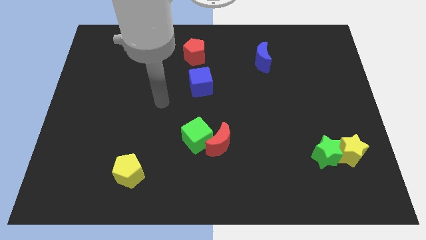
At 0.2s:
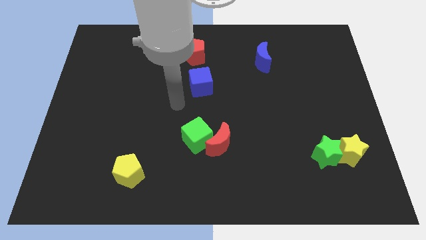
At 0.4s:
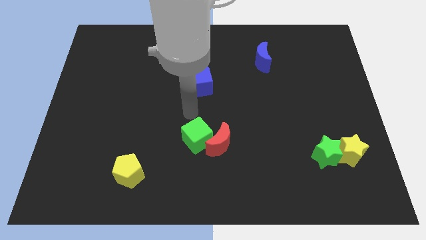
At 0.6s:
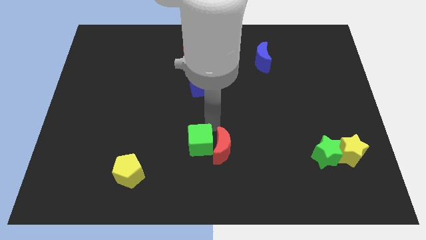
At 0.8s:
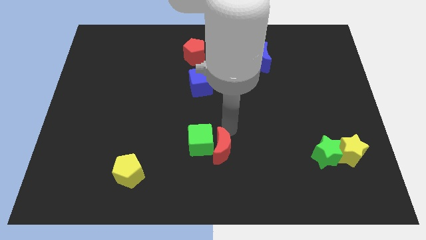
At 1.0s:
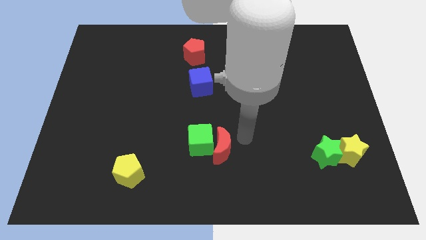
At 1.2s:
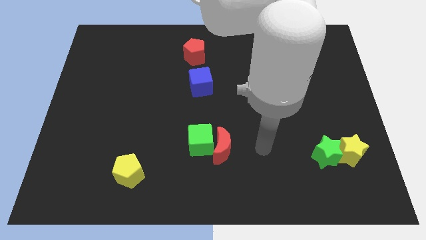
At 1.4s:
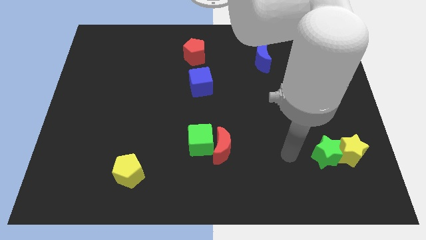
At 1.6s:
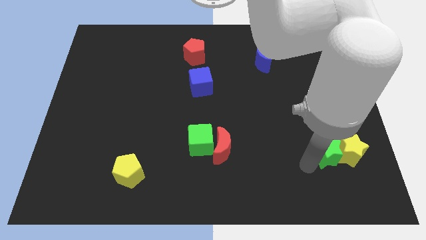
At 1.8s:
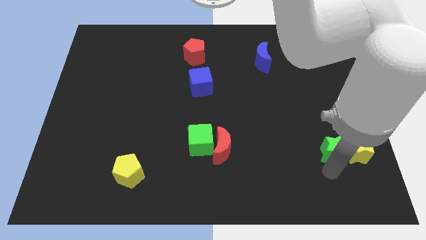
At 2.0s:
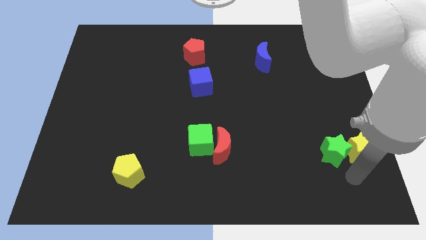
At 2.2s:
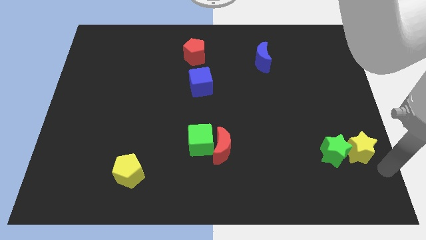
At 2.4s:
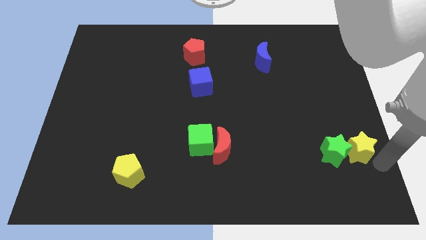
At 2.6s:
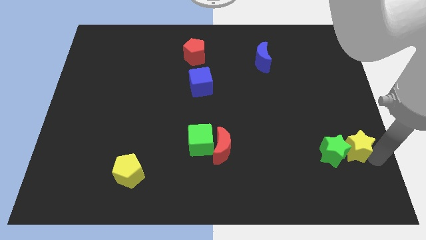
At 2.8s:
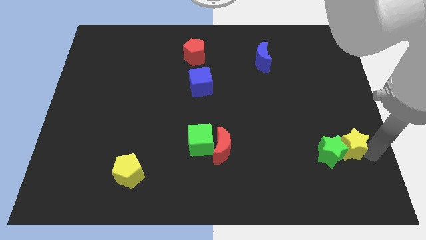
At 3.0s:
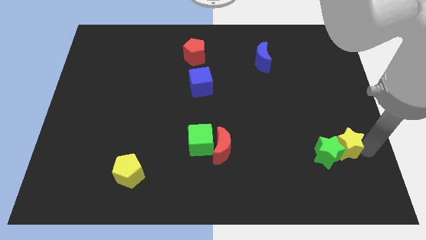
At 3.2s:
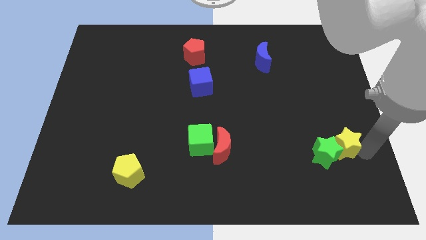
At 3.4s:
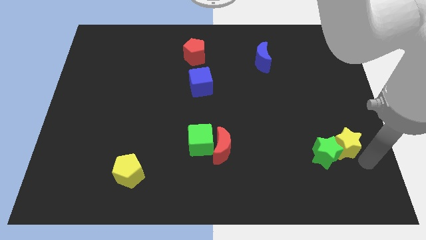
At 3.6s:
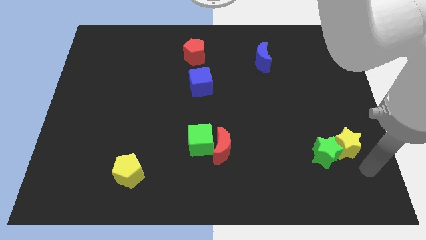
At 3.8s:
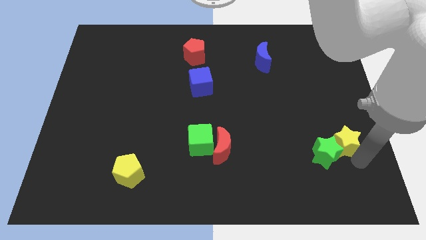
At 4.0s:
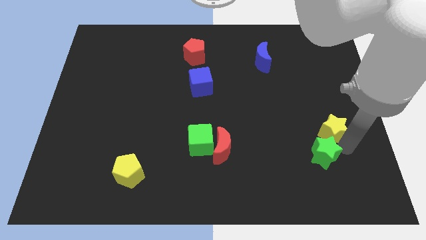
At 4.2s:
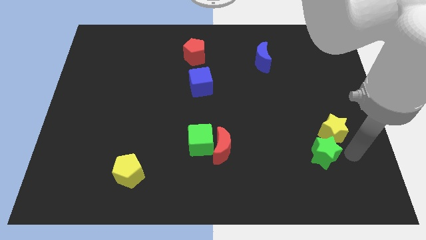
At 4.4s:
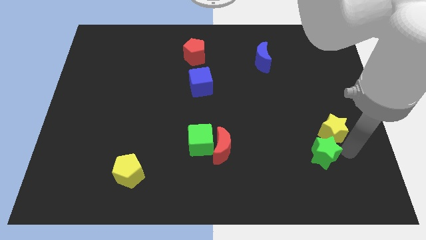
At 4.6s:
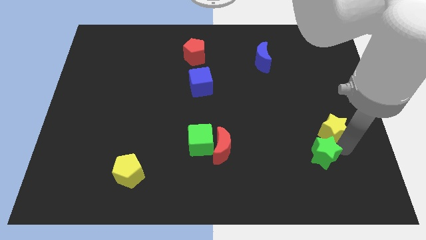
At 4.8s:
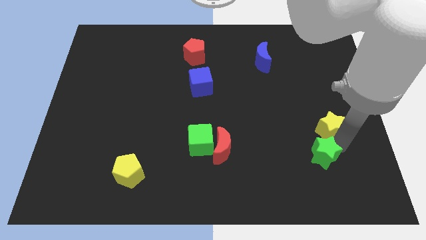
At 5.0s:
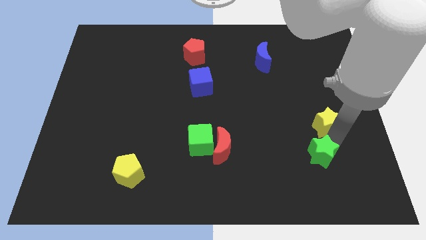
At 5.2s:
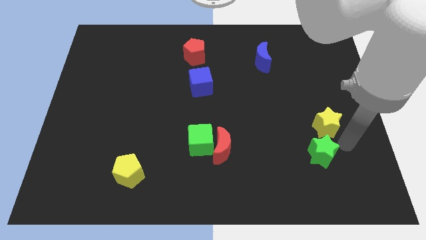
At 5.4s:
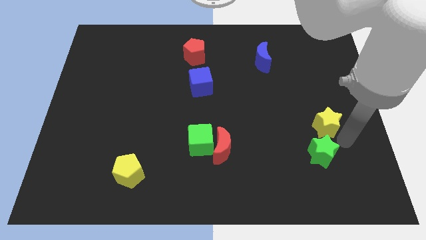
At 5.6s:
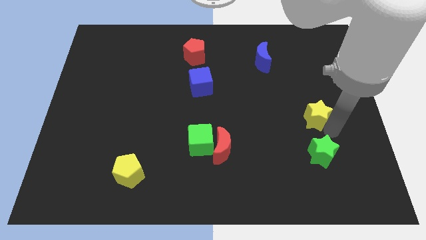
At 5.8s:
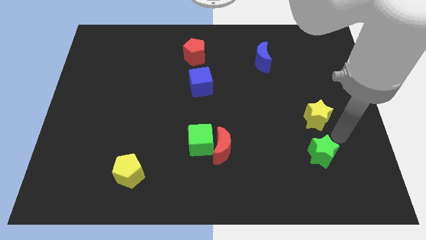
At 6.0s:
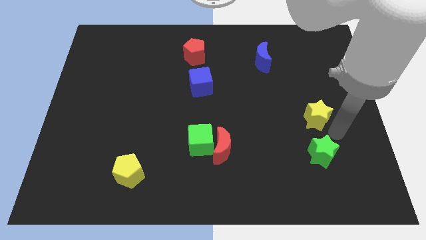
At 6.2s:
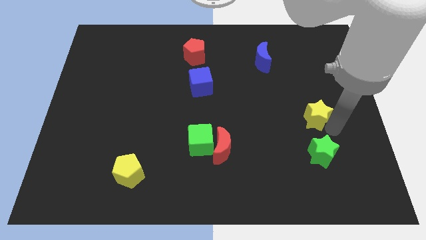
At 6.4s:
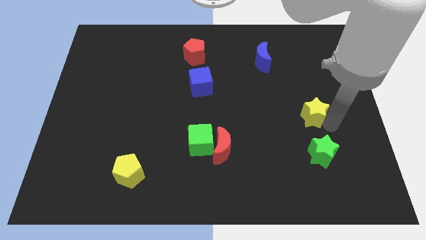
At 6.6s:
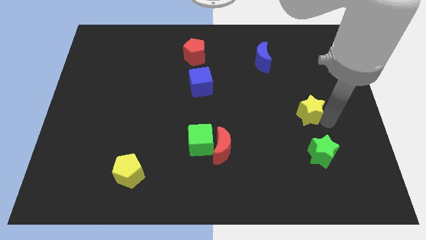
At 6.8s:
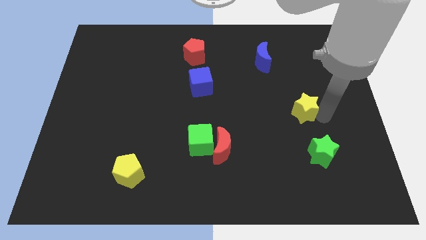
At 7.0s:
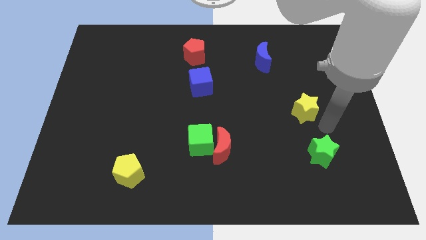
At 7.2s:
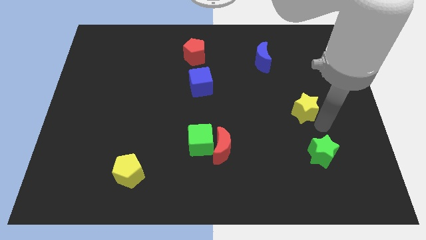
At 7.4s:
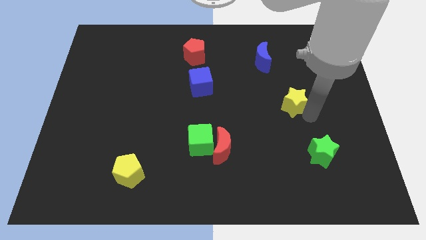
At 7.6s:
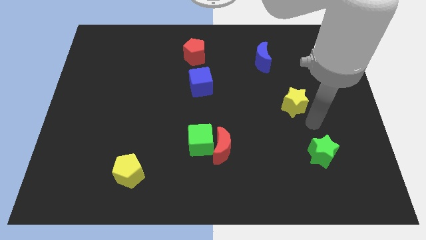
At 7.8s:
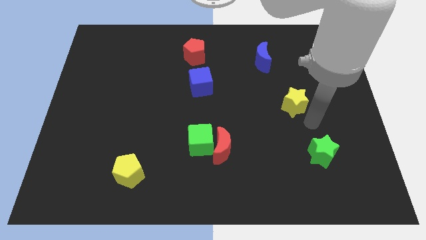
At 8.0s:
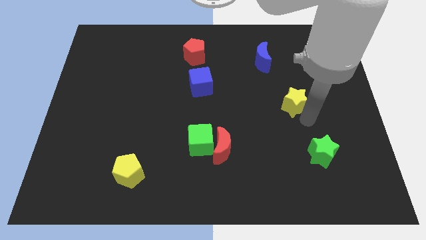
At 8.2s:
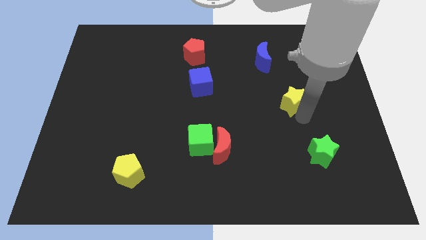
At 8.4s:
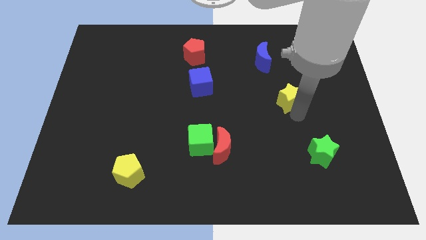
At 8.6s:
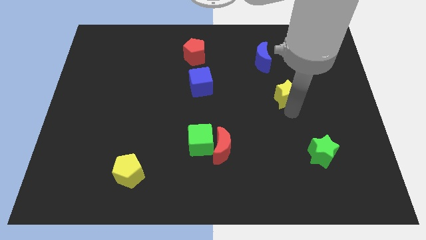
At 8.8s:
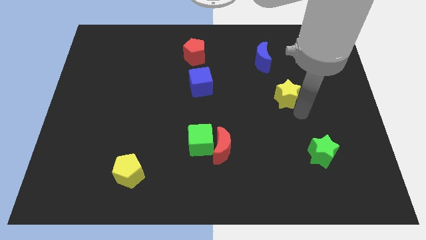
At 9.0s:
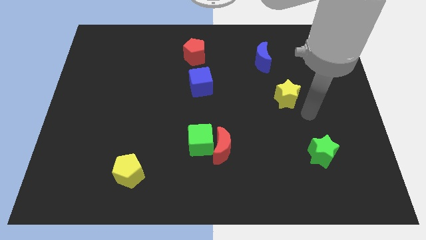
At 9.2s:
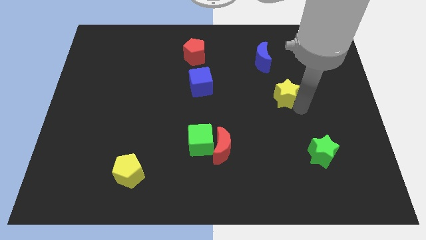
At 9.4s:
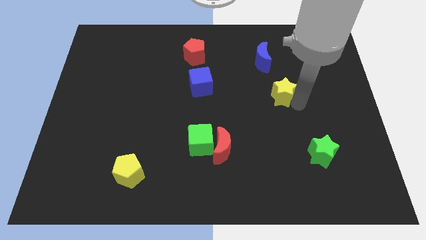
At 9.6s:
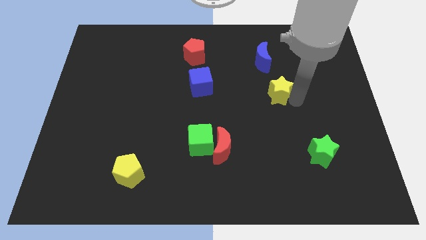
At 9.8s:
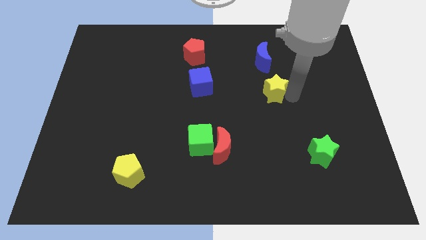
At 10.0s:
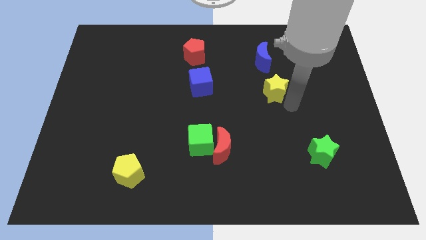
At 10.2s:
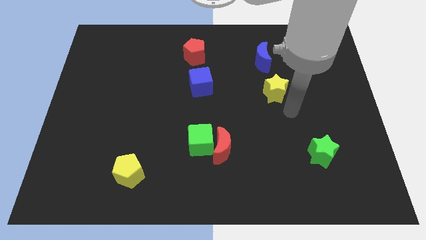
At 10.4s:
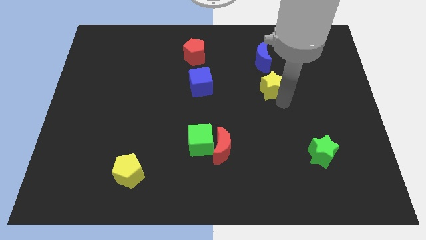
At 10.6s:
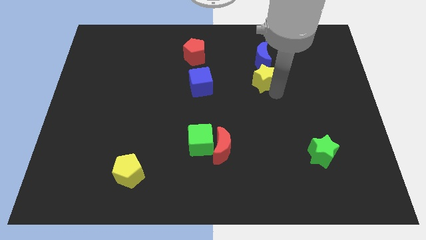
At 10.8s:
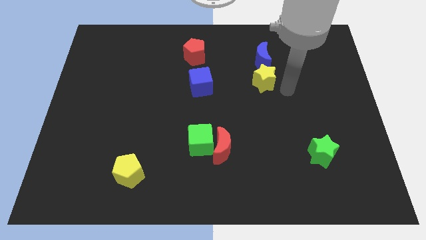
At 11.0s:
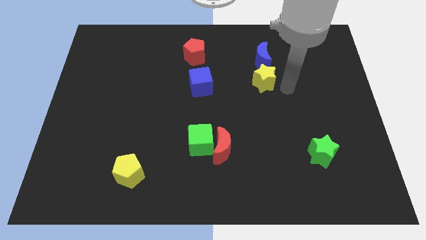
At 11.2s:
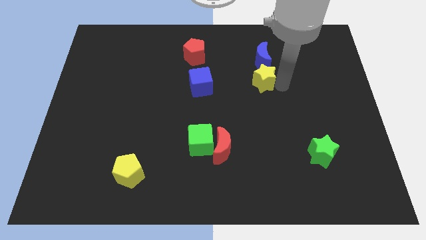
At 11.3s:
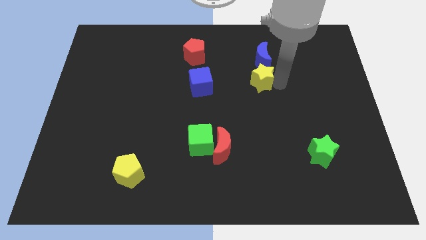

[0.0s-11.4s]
move the yellow star diagonally down and to the left of the blue moon

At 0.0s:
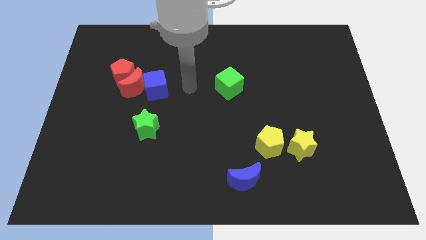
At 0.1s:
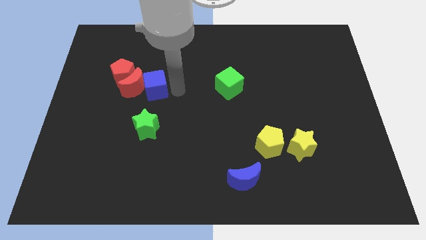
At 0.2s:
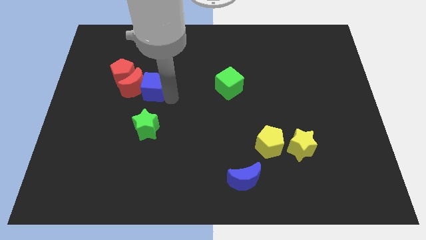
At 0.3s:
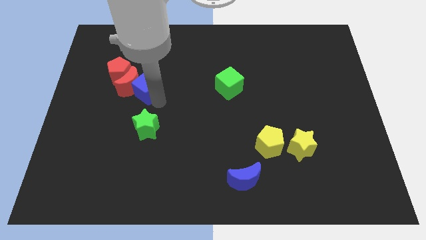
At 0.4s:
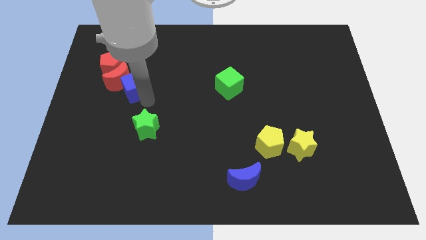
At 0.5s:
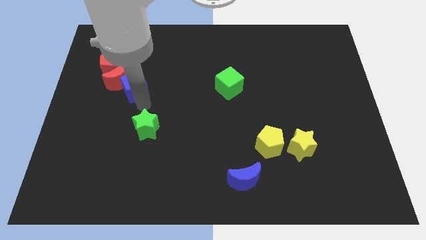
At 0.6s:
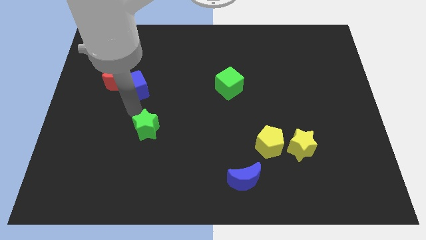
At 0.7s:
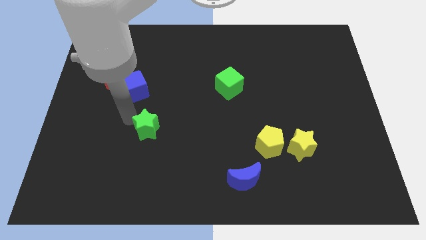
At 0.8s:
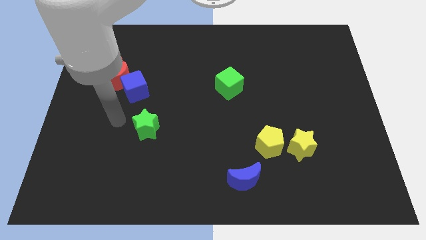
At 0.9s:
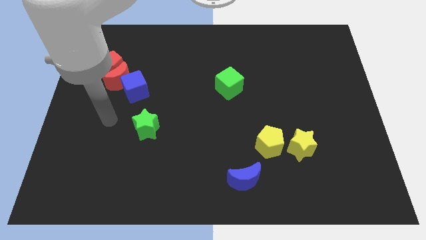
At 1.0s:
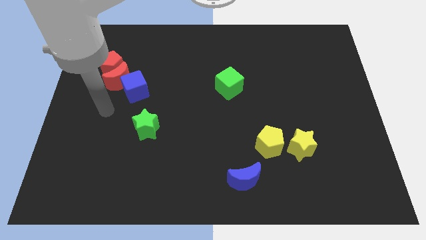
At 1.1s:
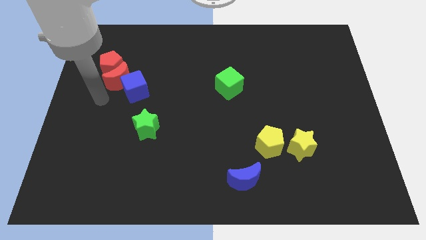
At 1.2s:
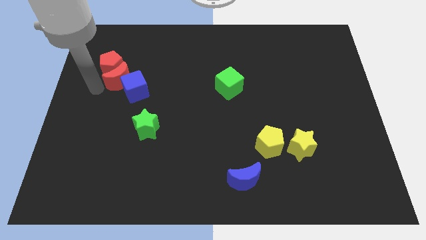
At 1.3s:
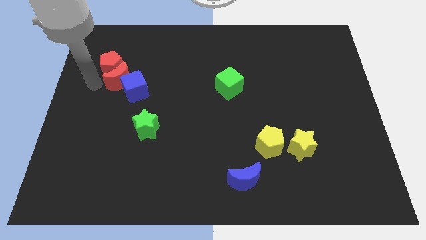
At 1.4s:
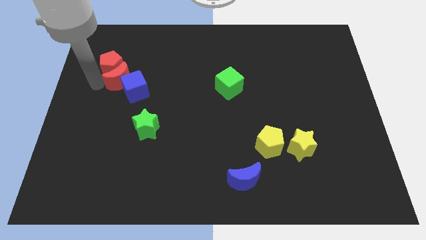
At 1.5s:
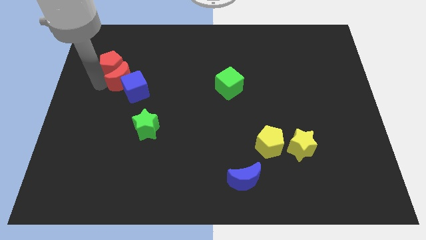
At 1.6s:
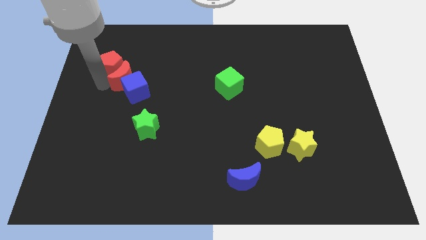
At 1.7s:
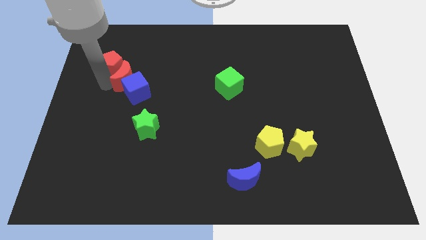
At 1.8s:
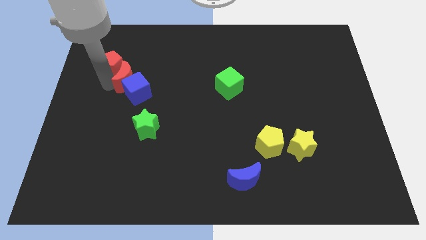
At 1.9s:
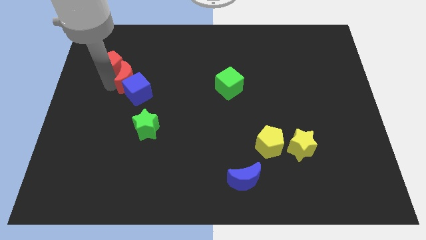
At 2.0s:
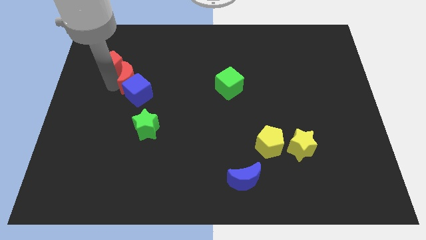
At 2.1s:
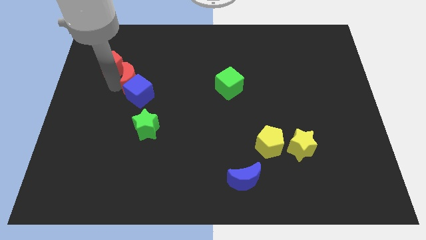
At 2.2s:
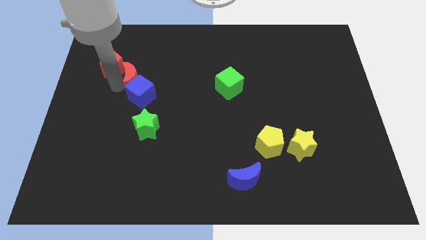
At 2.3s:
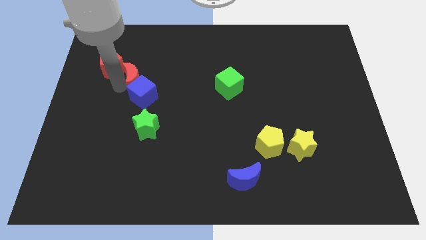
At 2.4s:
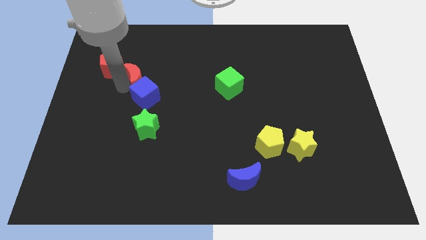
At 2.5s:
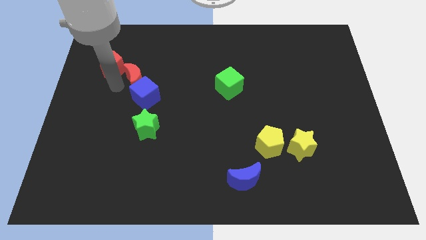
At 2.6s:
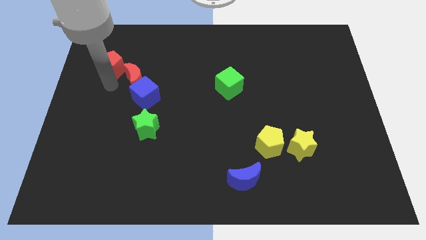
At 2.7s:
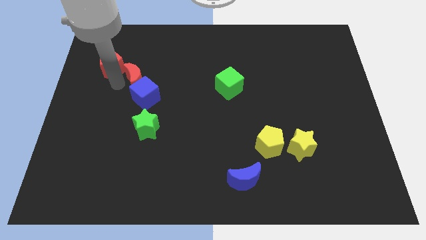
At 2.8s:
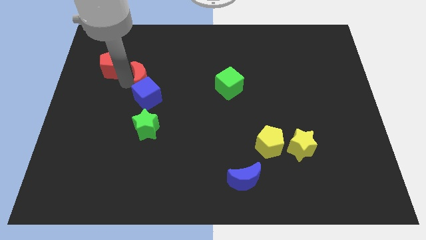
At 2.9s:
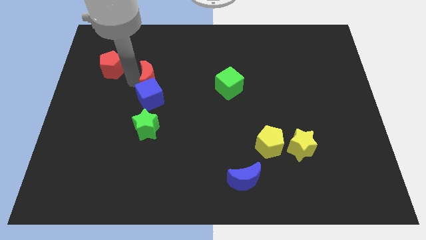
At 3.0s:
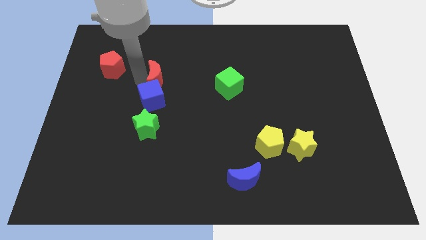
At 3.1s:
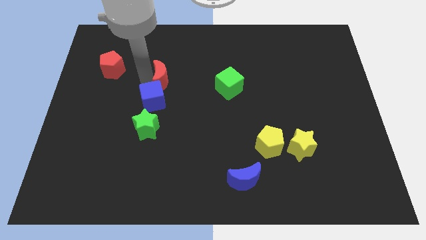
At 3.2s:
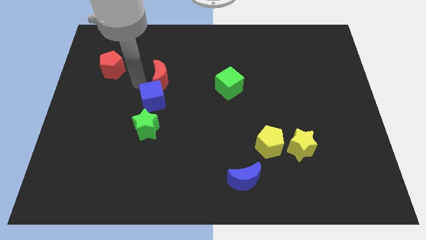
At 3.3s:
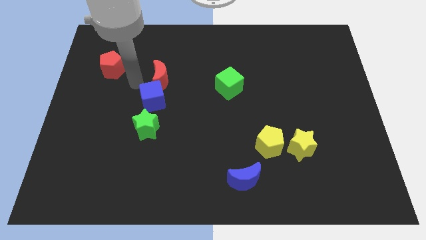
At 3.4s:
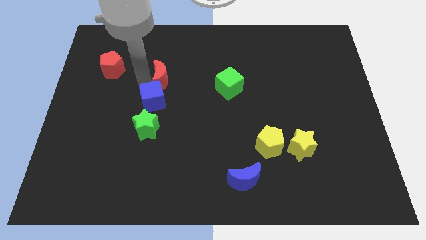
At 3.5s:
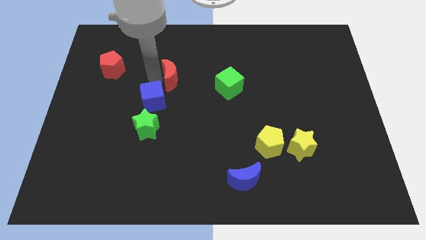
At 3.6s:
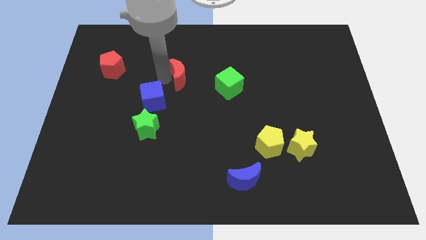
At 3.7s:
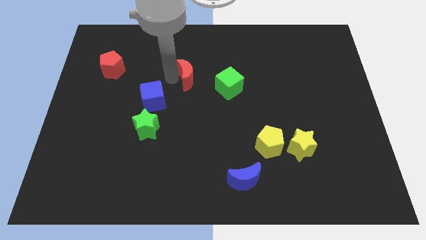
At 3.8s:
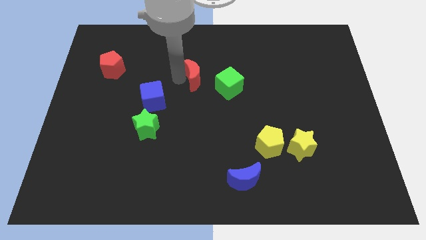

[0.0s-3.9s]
push the red moon to the top left of the green cube
